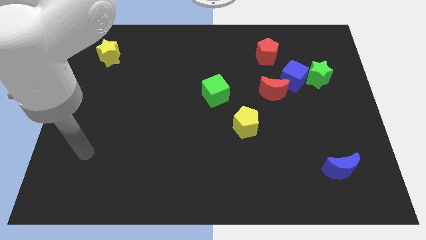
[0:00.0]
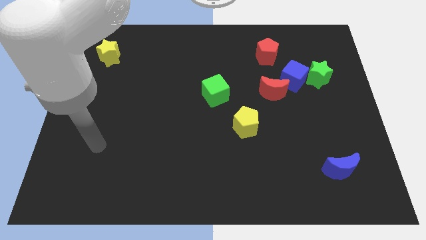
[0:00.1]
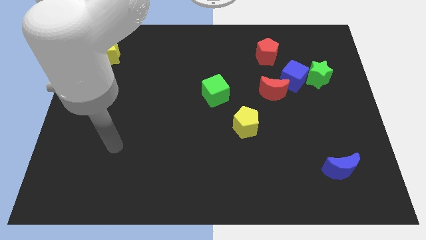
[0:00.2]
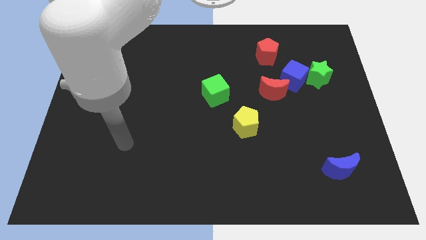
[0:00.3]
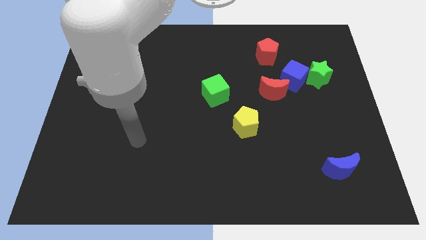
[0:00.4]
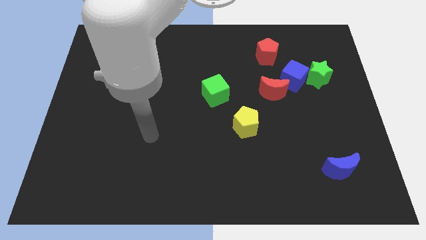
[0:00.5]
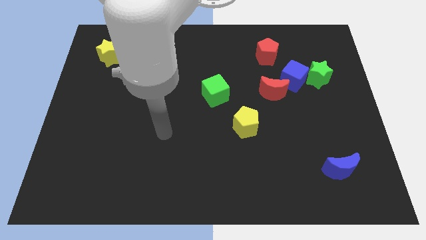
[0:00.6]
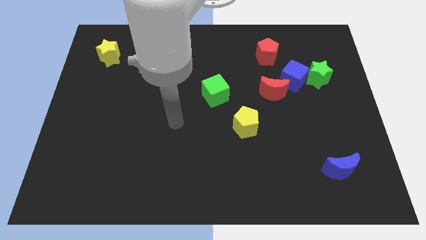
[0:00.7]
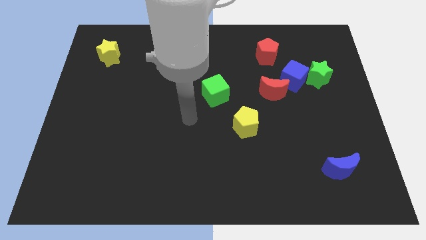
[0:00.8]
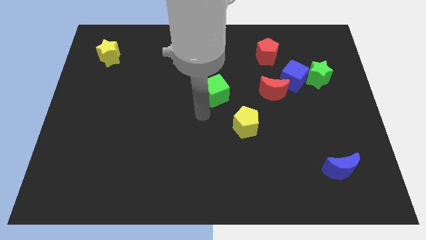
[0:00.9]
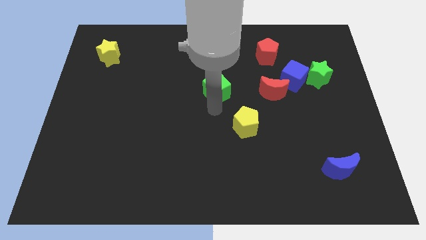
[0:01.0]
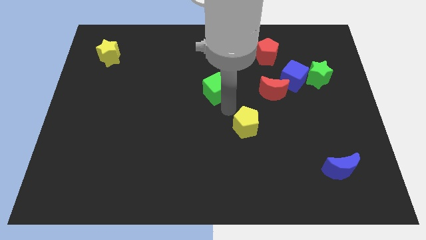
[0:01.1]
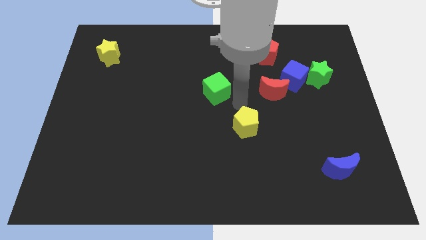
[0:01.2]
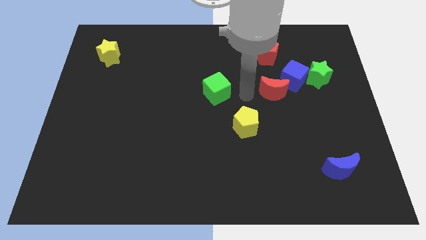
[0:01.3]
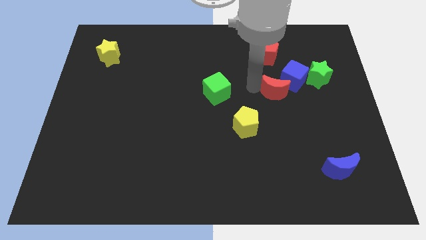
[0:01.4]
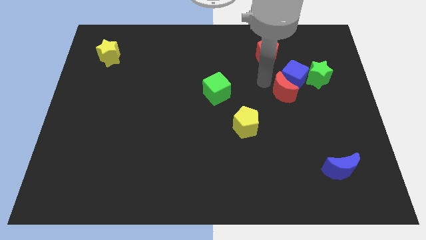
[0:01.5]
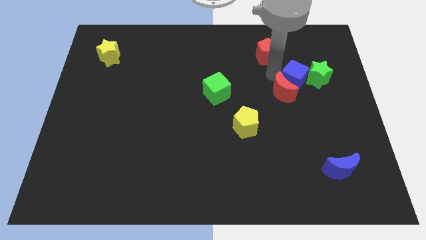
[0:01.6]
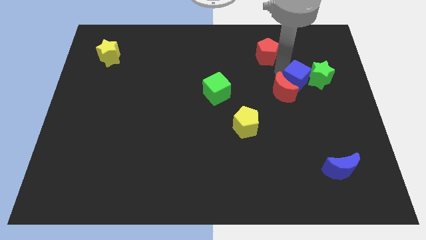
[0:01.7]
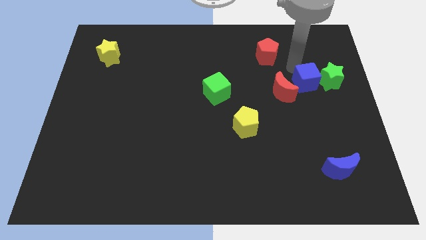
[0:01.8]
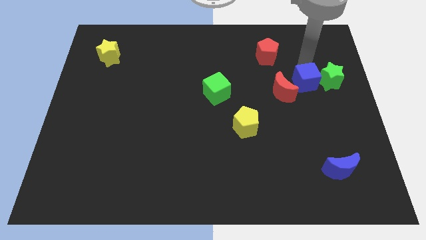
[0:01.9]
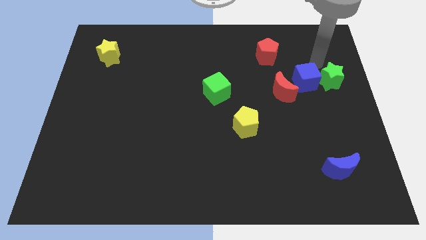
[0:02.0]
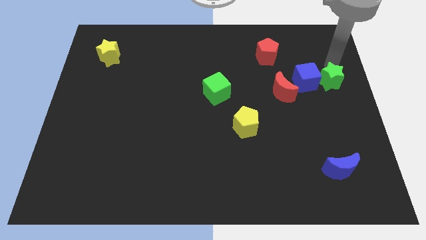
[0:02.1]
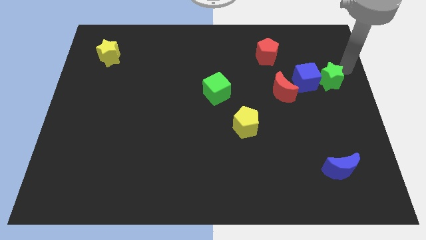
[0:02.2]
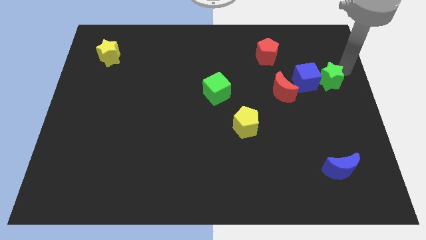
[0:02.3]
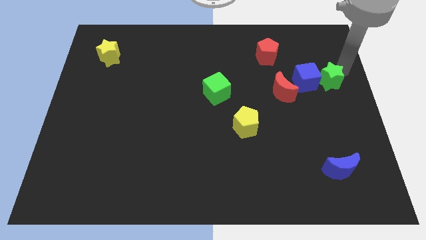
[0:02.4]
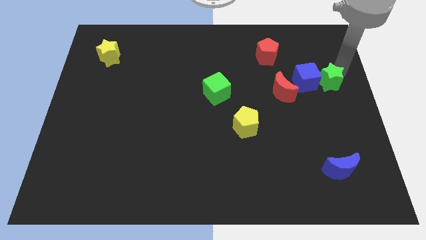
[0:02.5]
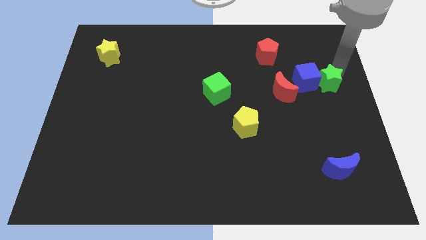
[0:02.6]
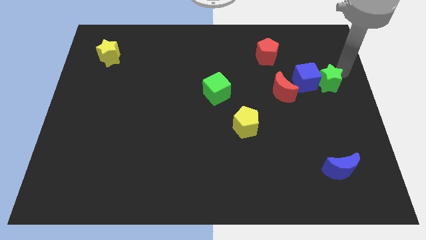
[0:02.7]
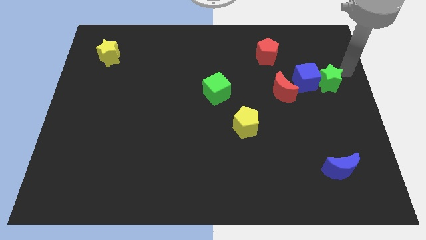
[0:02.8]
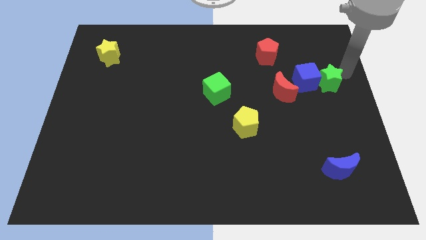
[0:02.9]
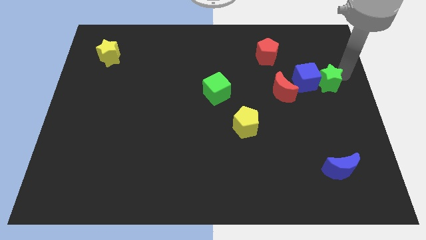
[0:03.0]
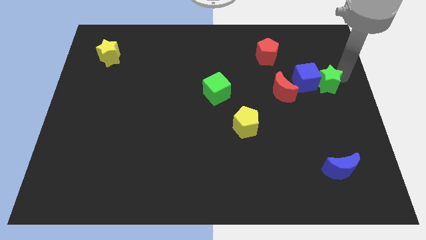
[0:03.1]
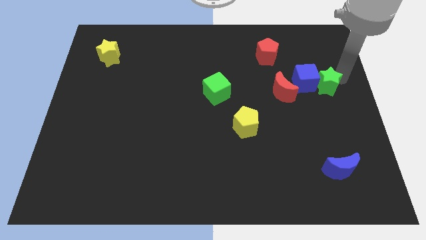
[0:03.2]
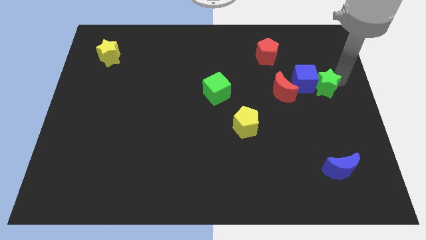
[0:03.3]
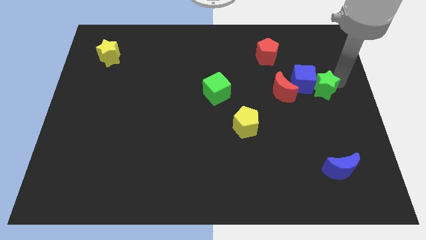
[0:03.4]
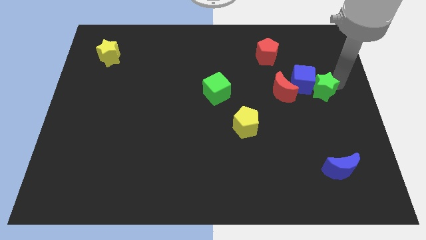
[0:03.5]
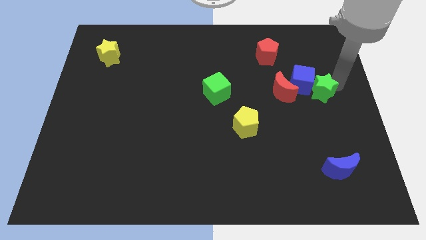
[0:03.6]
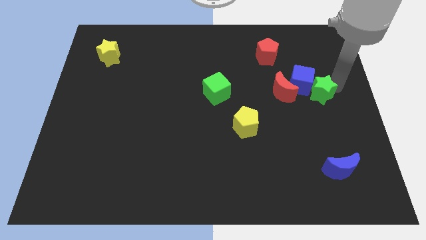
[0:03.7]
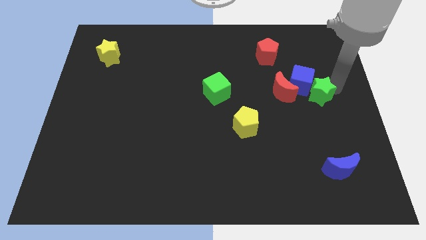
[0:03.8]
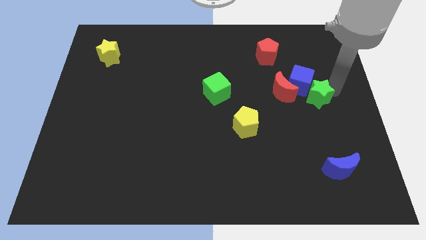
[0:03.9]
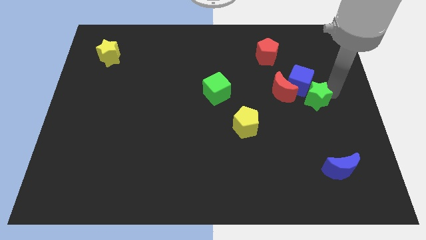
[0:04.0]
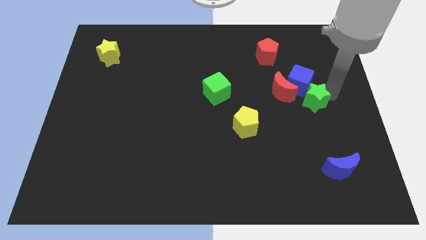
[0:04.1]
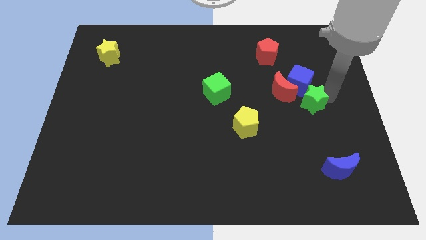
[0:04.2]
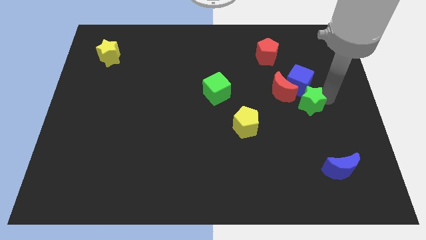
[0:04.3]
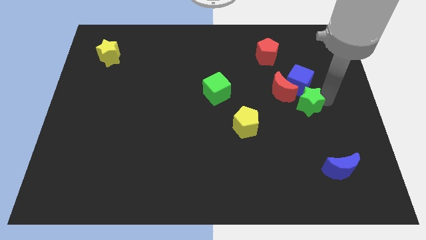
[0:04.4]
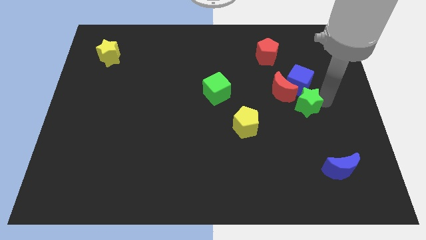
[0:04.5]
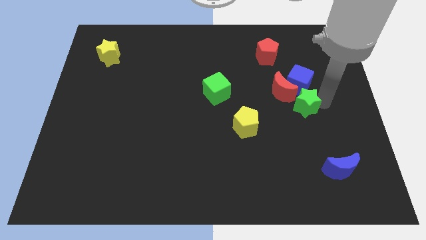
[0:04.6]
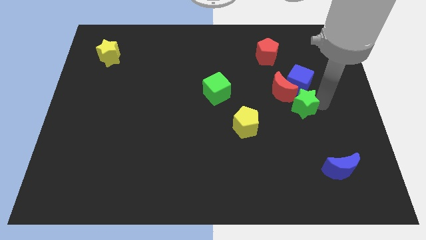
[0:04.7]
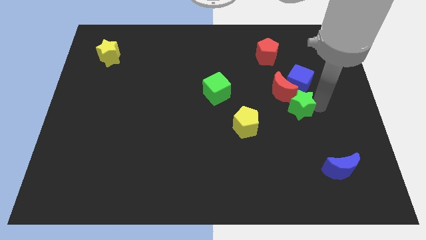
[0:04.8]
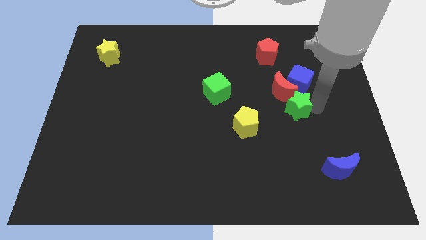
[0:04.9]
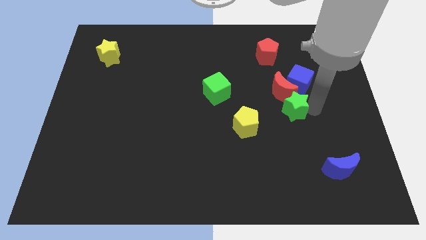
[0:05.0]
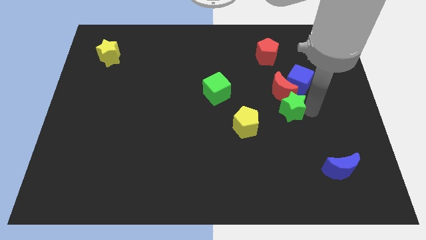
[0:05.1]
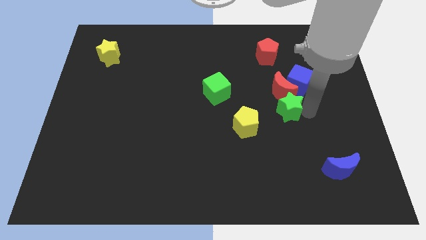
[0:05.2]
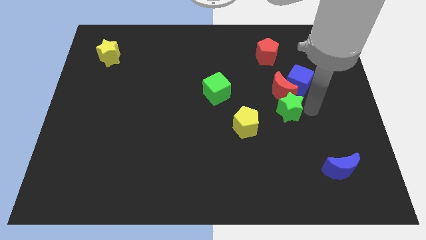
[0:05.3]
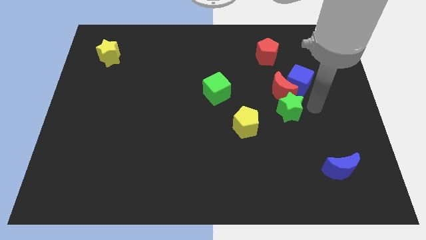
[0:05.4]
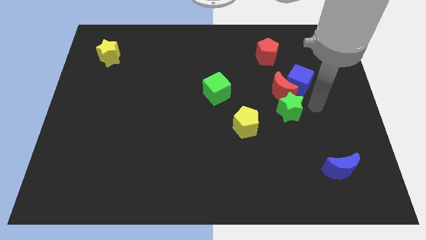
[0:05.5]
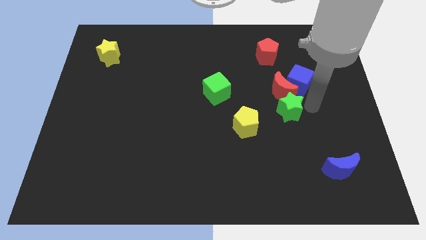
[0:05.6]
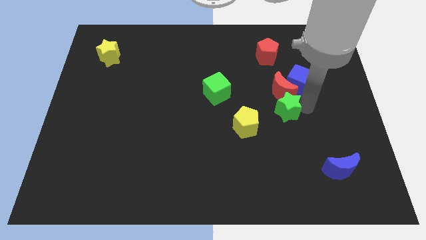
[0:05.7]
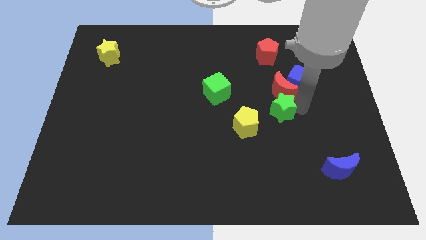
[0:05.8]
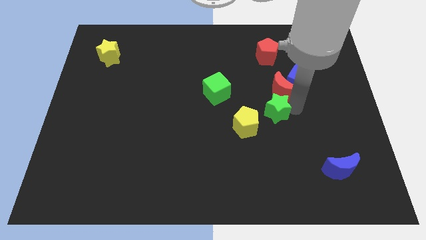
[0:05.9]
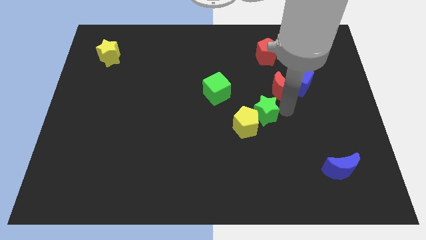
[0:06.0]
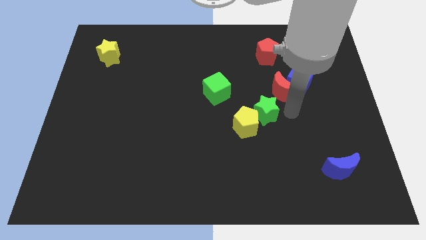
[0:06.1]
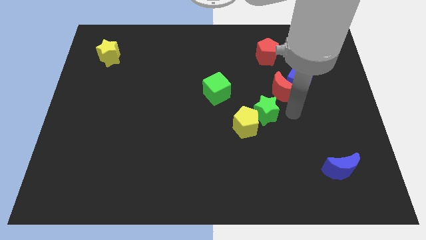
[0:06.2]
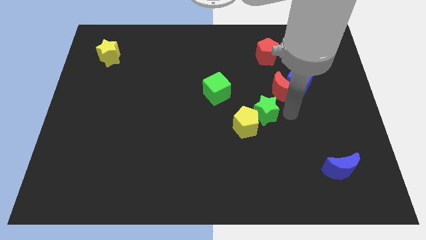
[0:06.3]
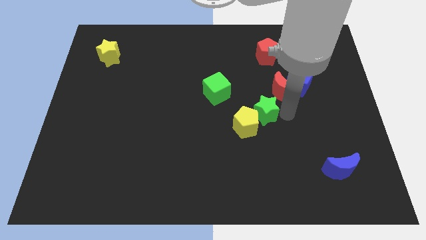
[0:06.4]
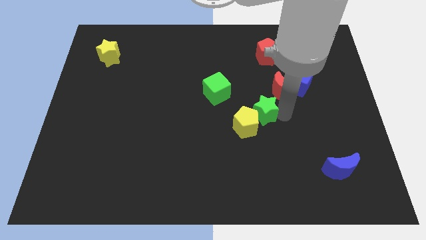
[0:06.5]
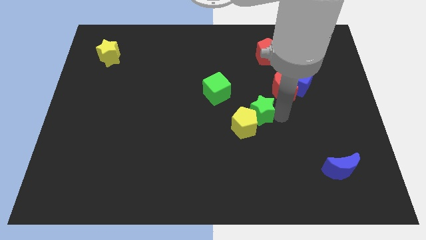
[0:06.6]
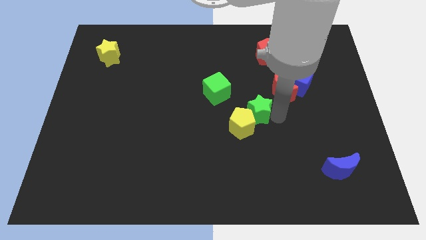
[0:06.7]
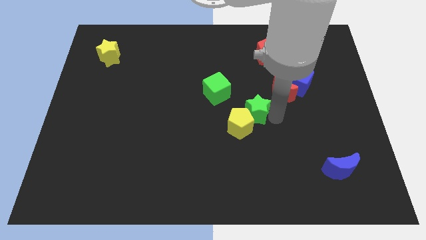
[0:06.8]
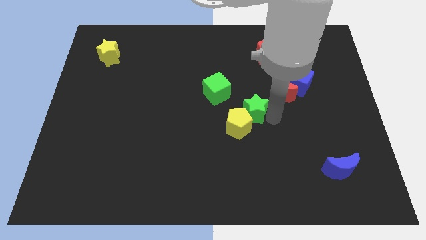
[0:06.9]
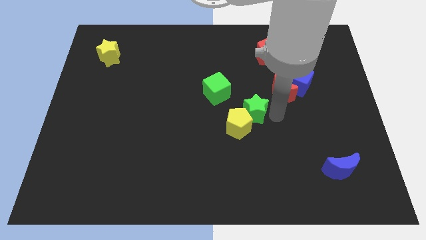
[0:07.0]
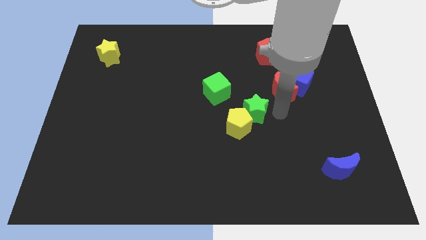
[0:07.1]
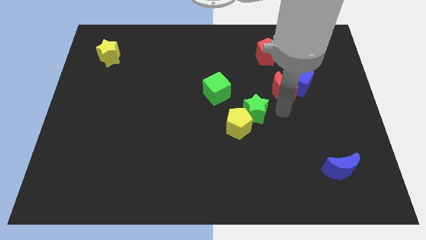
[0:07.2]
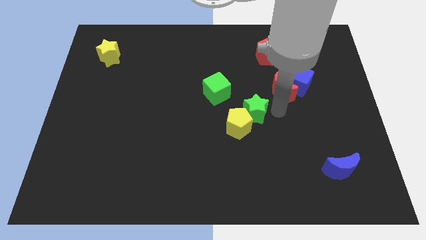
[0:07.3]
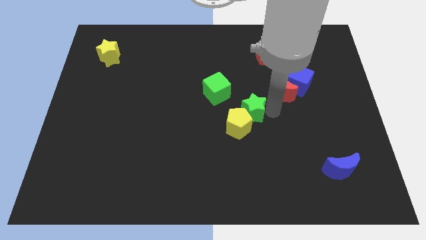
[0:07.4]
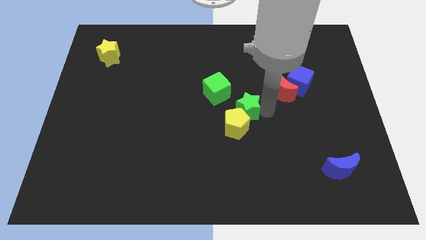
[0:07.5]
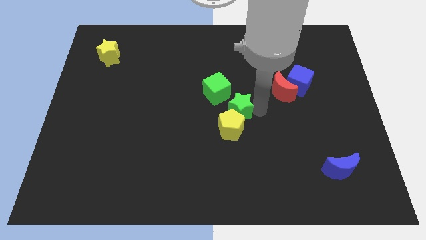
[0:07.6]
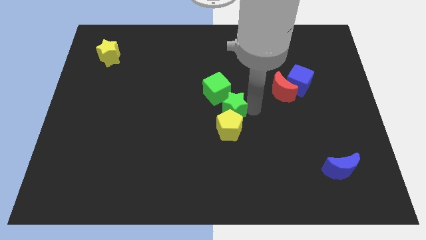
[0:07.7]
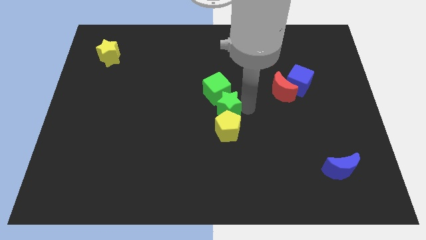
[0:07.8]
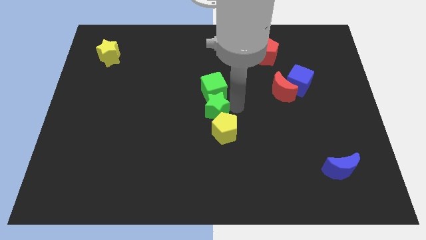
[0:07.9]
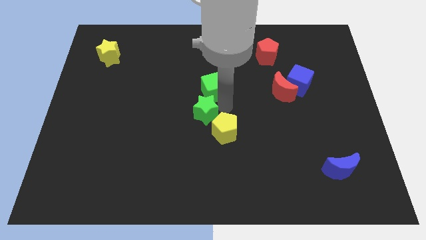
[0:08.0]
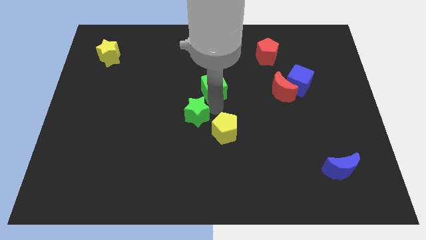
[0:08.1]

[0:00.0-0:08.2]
put the green star to the left side of the yellow pentagon
